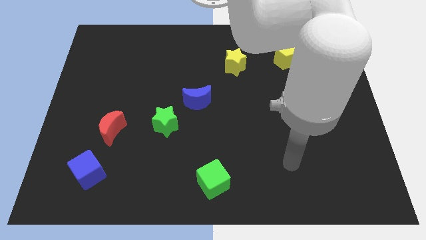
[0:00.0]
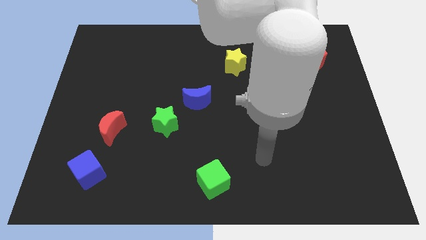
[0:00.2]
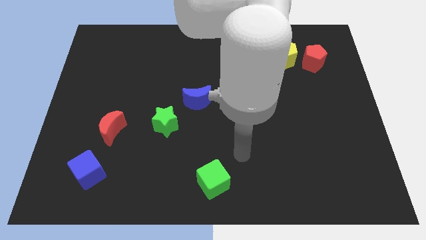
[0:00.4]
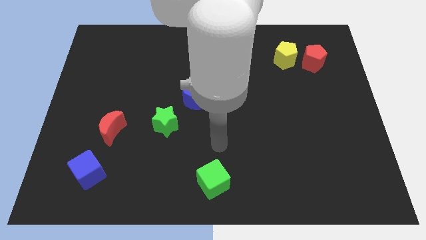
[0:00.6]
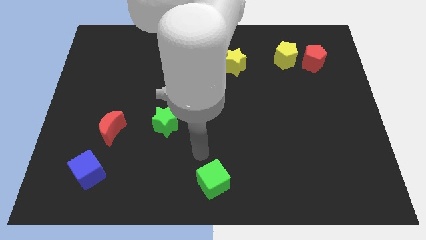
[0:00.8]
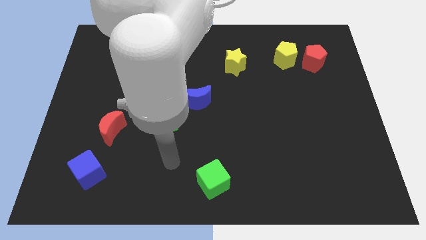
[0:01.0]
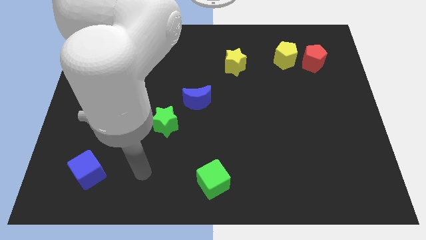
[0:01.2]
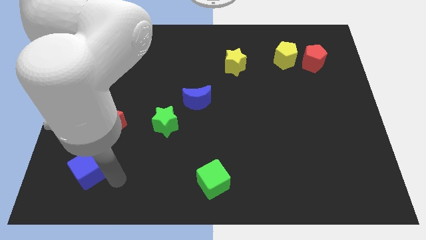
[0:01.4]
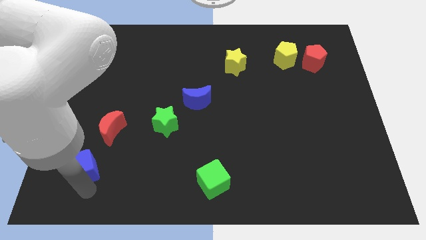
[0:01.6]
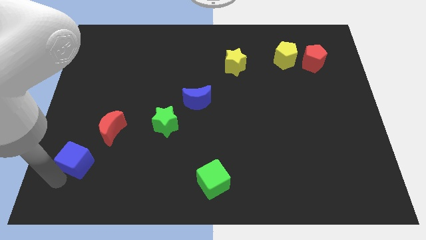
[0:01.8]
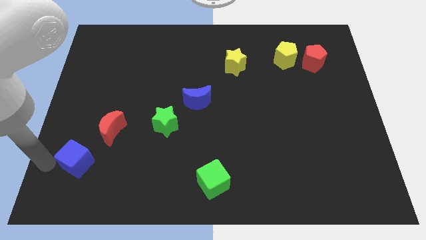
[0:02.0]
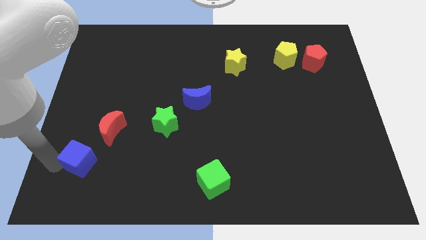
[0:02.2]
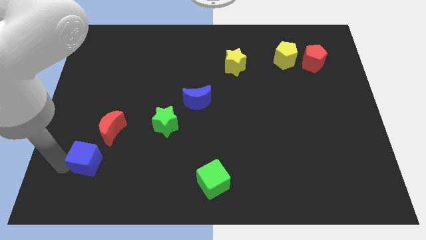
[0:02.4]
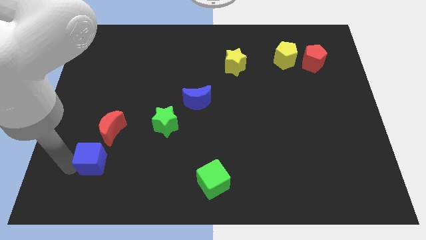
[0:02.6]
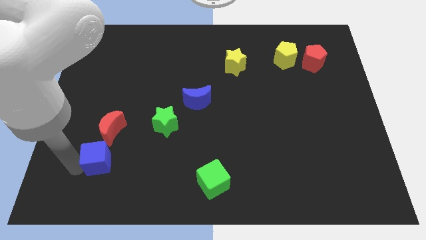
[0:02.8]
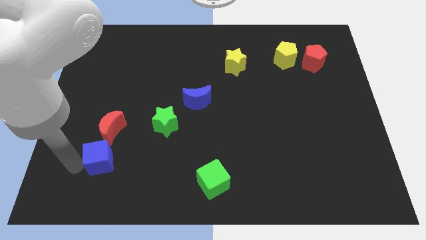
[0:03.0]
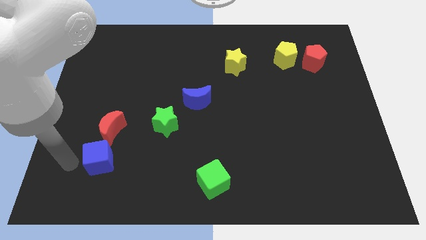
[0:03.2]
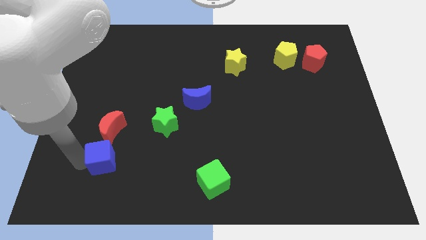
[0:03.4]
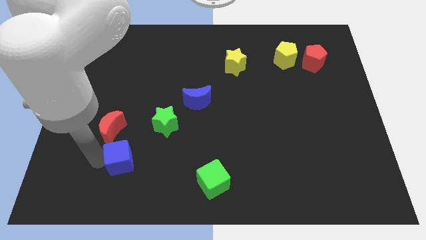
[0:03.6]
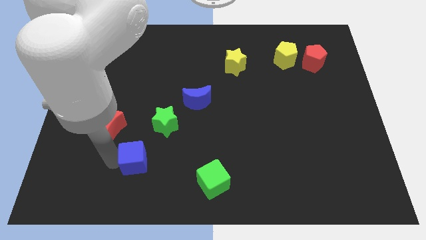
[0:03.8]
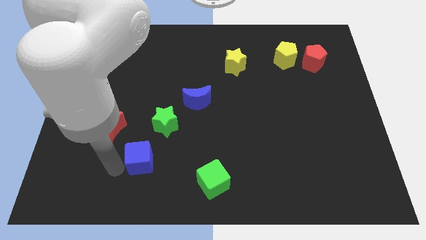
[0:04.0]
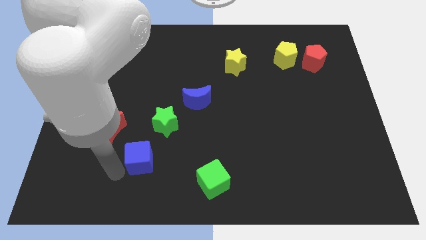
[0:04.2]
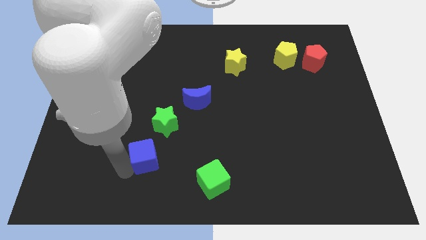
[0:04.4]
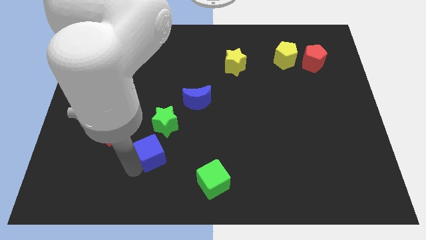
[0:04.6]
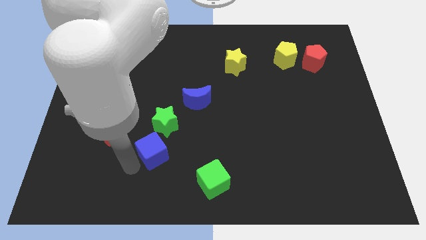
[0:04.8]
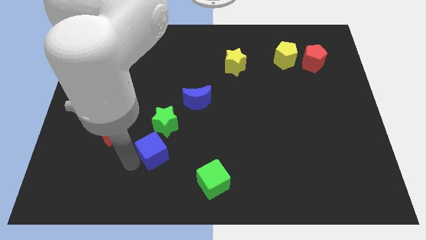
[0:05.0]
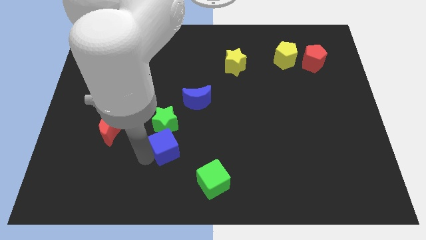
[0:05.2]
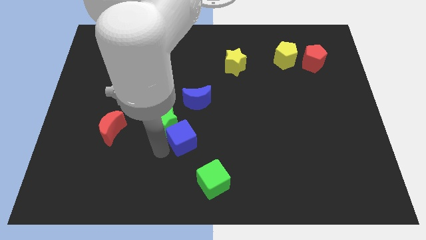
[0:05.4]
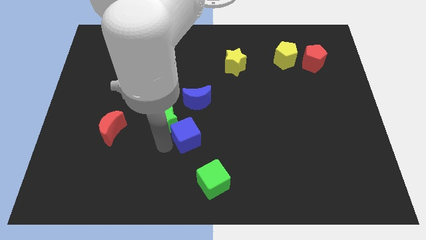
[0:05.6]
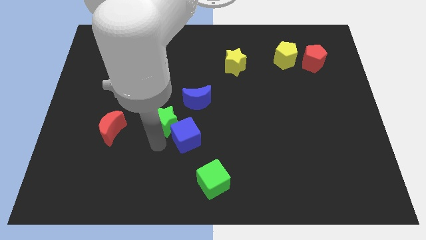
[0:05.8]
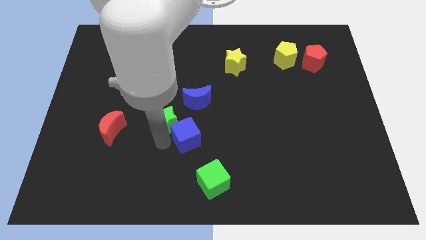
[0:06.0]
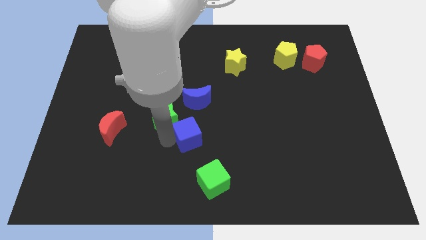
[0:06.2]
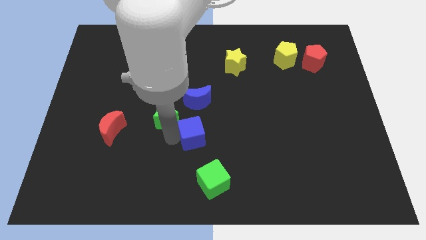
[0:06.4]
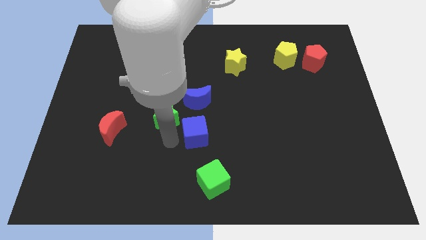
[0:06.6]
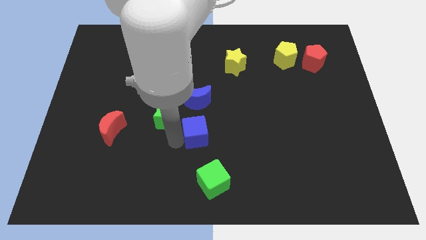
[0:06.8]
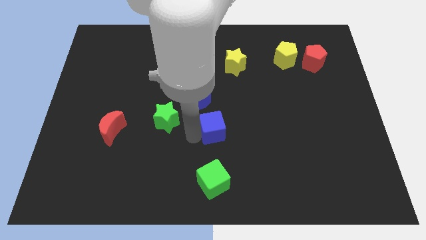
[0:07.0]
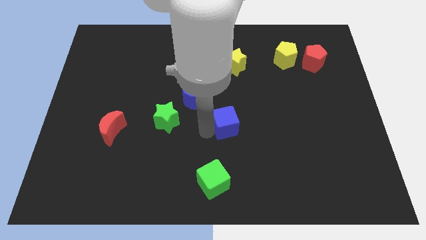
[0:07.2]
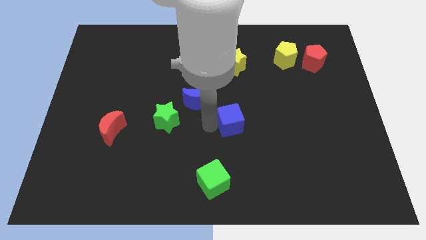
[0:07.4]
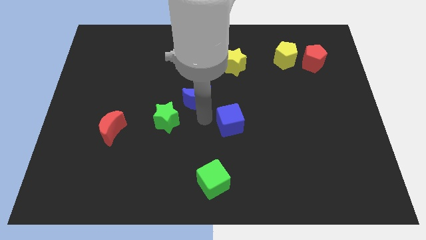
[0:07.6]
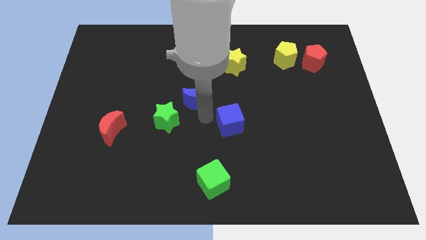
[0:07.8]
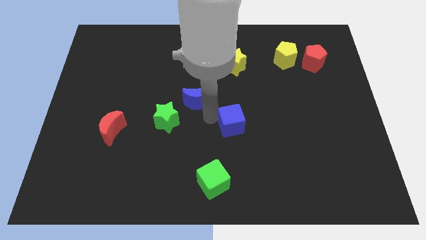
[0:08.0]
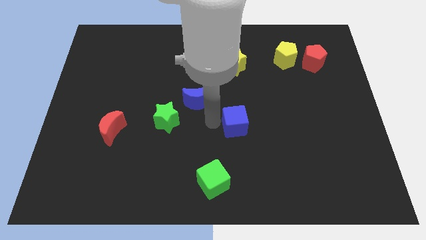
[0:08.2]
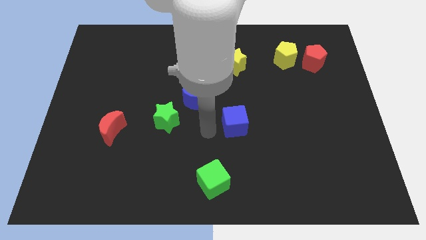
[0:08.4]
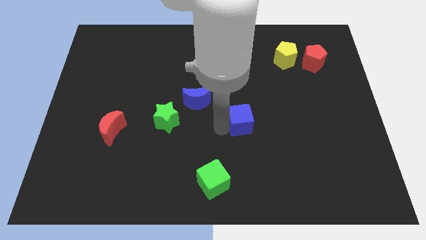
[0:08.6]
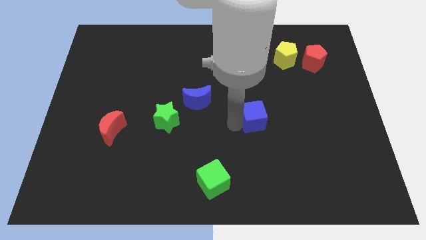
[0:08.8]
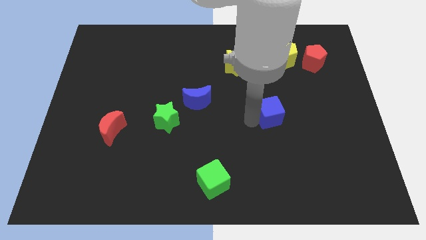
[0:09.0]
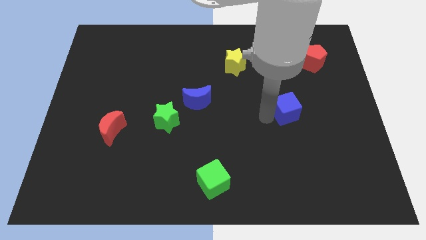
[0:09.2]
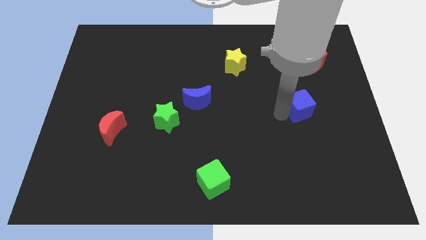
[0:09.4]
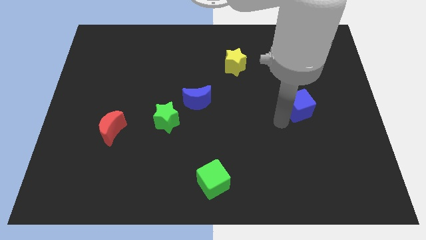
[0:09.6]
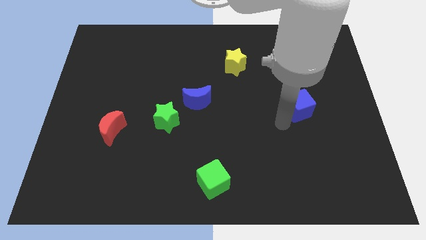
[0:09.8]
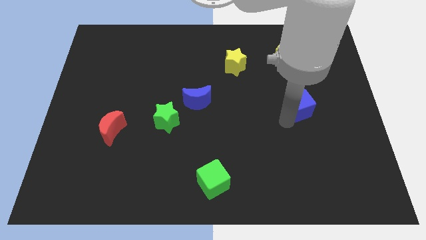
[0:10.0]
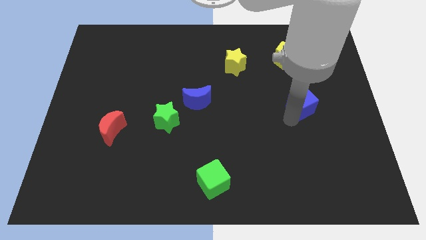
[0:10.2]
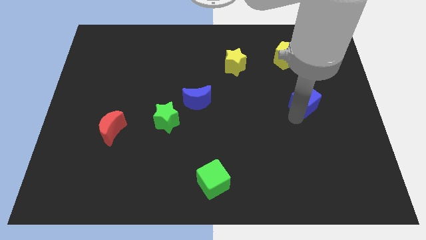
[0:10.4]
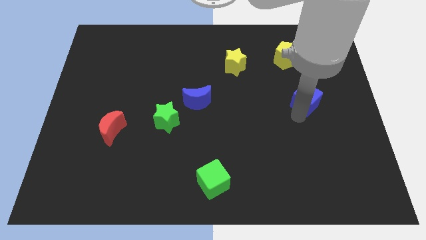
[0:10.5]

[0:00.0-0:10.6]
put the blue cube to the bottom side of the red pentagon

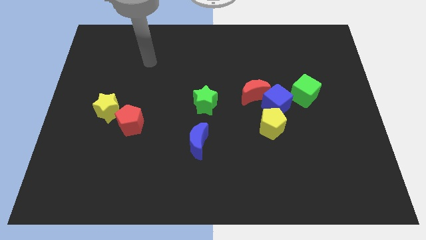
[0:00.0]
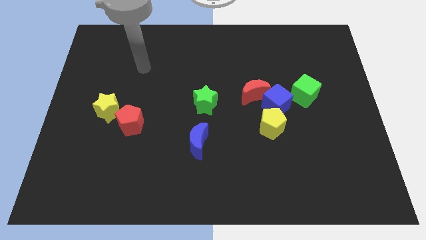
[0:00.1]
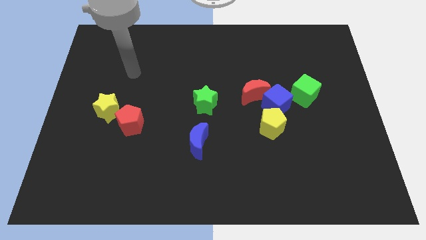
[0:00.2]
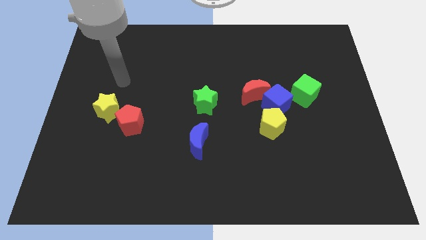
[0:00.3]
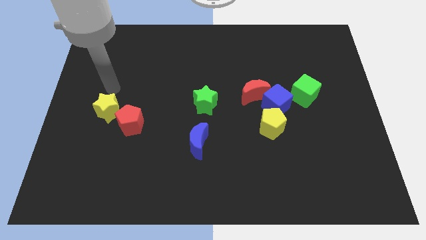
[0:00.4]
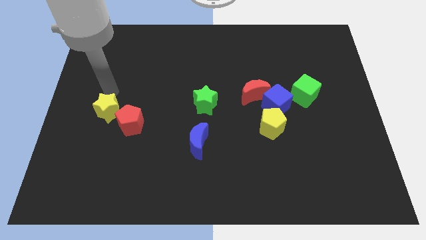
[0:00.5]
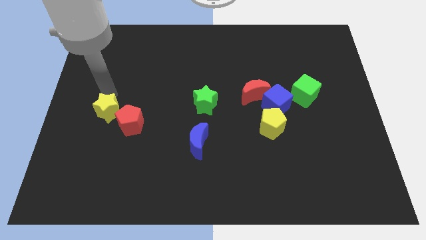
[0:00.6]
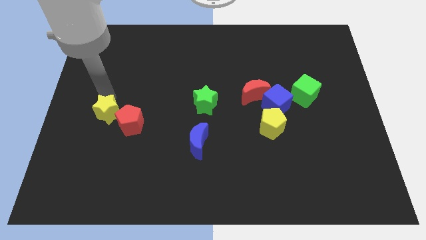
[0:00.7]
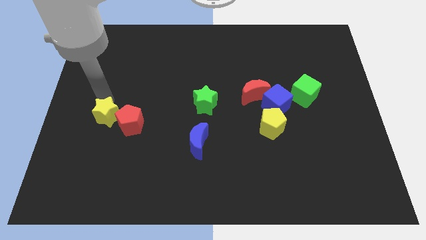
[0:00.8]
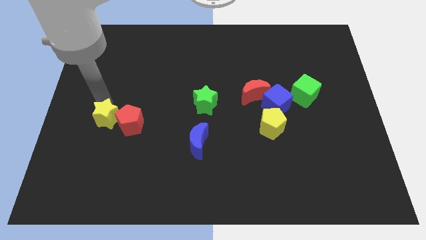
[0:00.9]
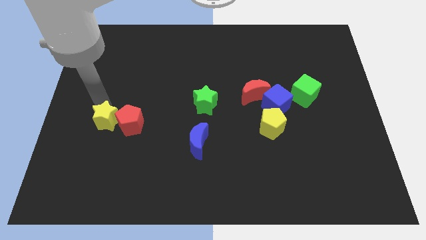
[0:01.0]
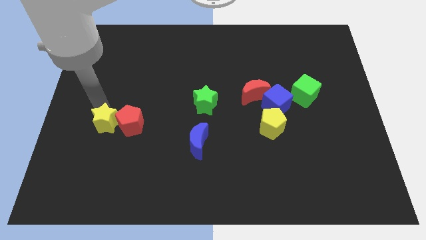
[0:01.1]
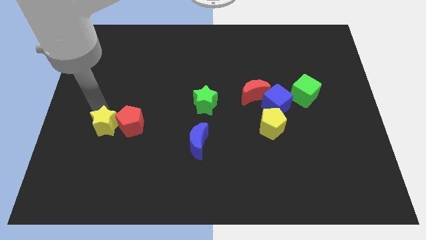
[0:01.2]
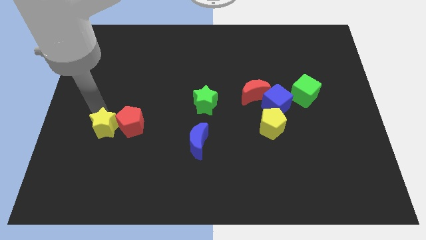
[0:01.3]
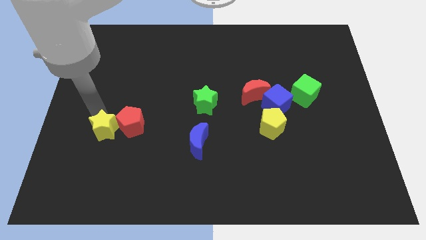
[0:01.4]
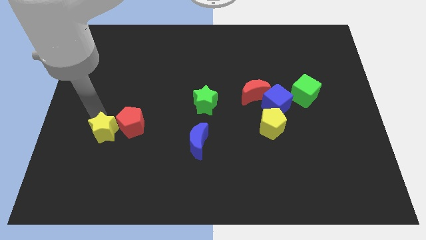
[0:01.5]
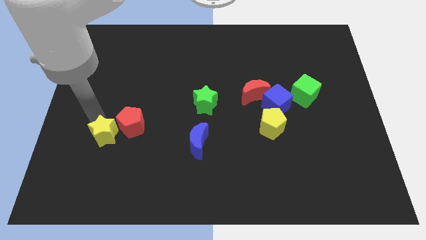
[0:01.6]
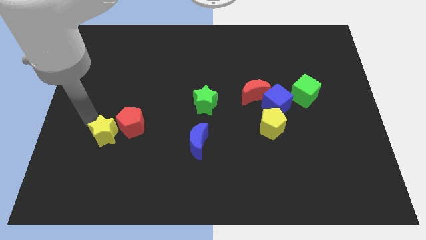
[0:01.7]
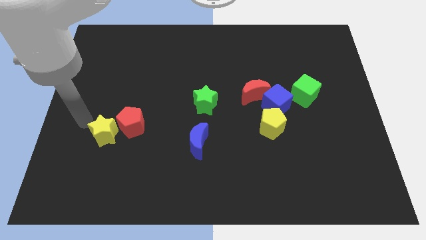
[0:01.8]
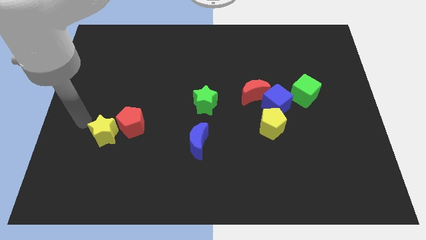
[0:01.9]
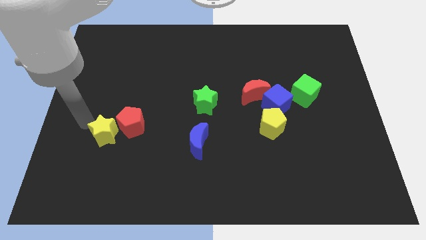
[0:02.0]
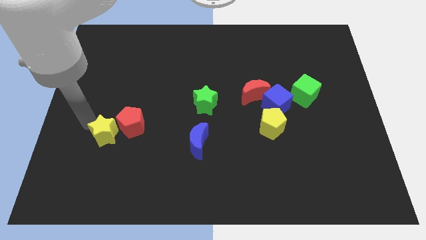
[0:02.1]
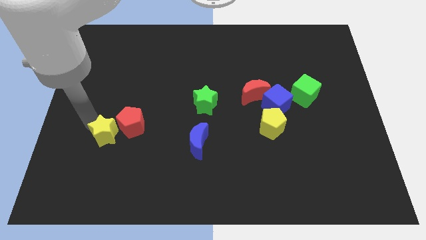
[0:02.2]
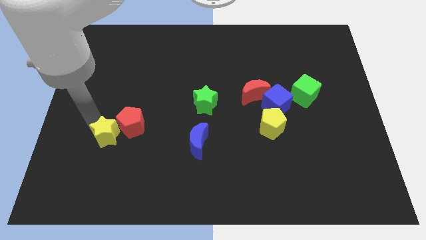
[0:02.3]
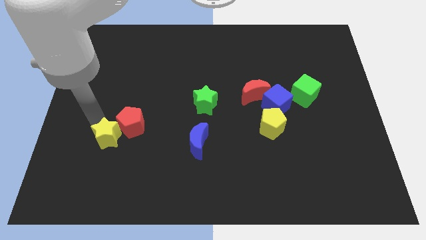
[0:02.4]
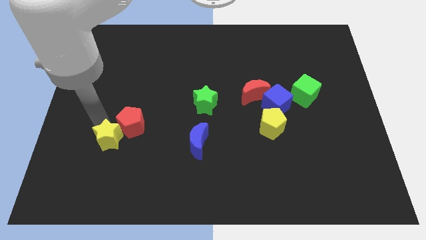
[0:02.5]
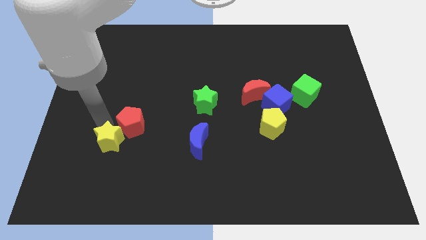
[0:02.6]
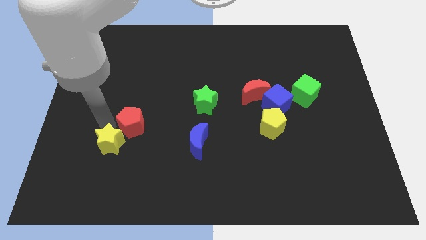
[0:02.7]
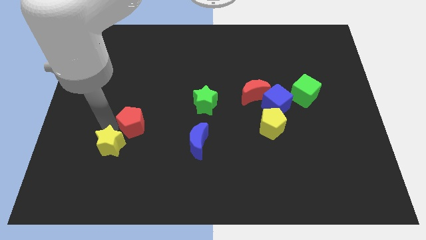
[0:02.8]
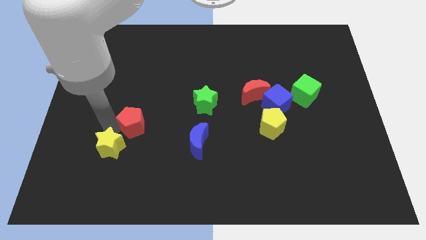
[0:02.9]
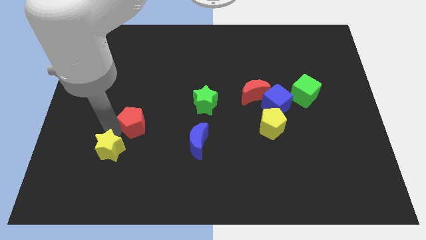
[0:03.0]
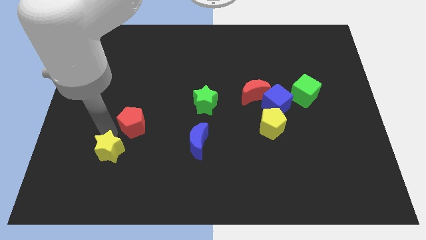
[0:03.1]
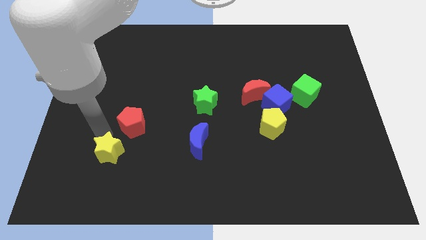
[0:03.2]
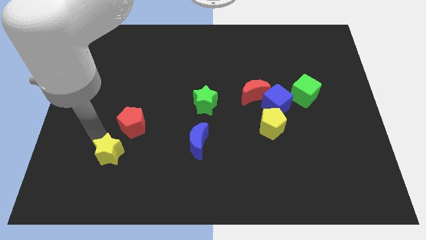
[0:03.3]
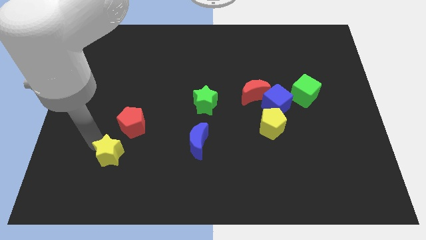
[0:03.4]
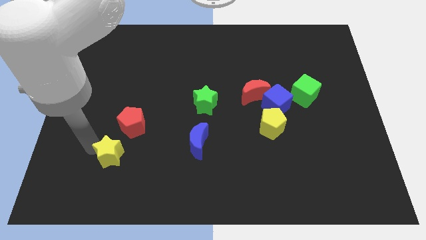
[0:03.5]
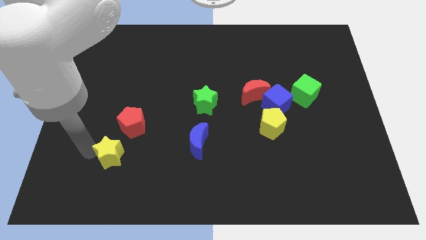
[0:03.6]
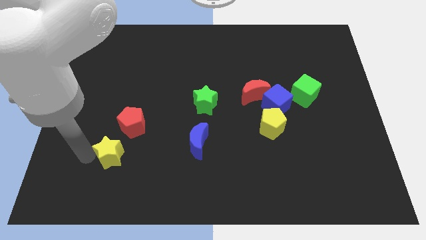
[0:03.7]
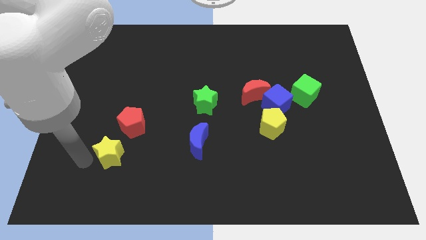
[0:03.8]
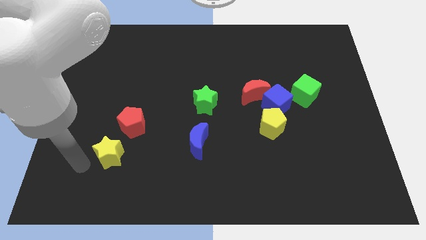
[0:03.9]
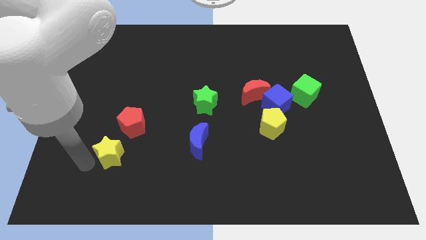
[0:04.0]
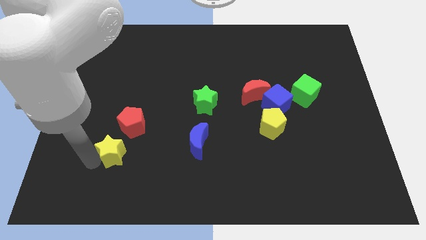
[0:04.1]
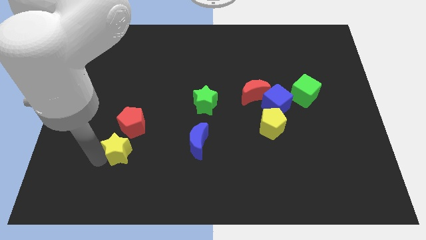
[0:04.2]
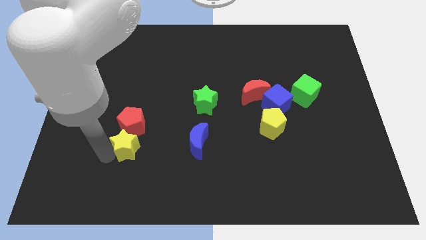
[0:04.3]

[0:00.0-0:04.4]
move the yellow star just left of the blue moon
